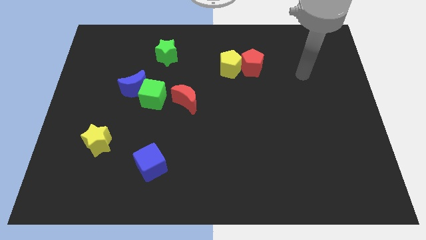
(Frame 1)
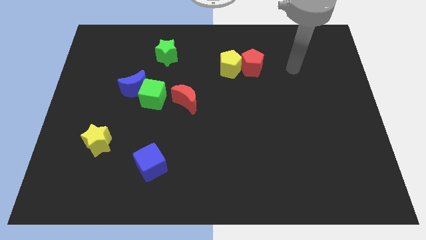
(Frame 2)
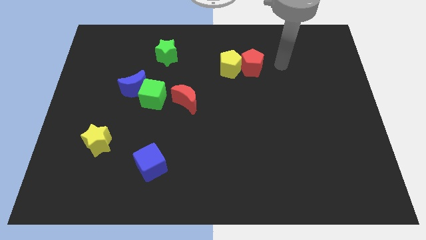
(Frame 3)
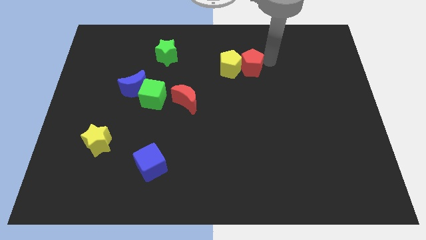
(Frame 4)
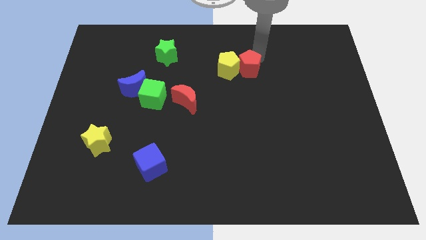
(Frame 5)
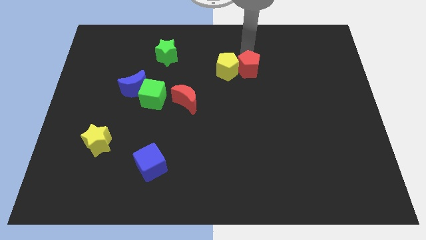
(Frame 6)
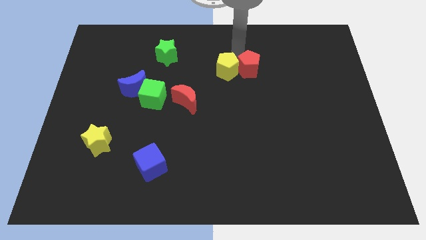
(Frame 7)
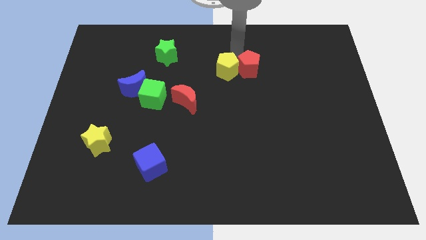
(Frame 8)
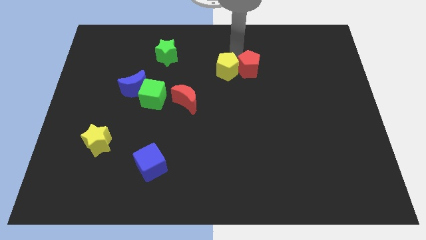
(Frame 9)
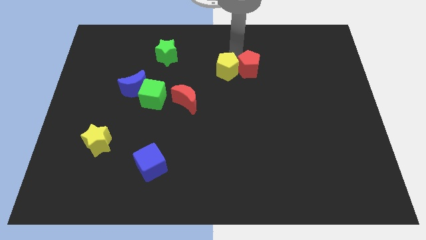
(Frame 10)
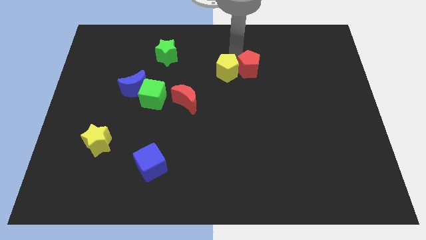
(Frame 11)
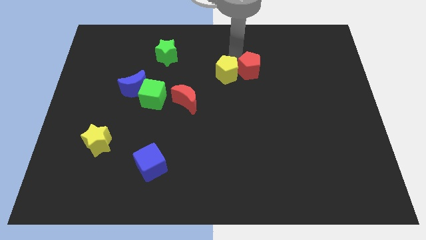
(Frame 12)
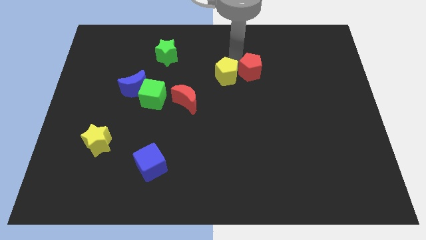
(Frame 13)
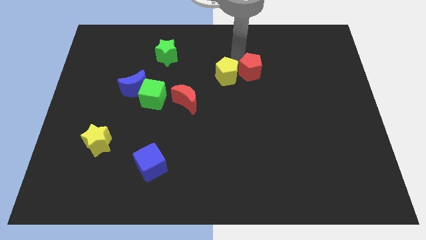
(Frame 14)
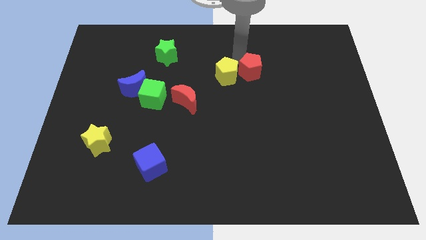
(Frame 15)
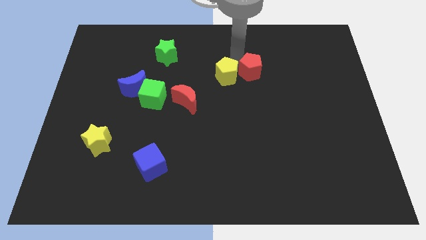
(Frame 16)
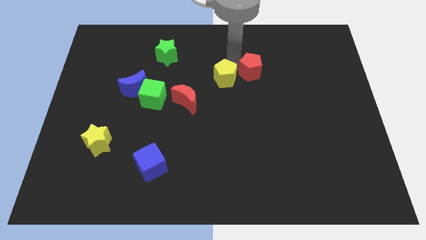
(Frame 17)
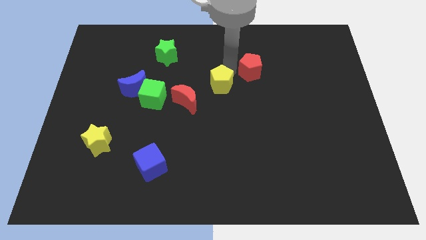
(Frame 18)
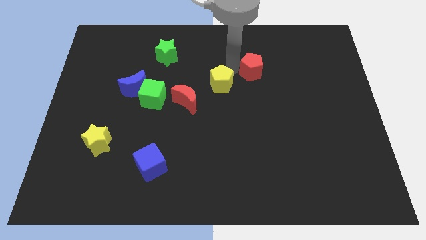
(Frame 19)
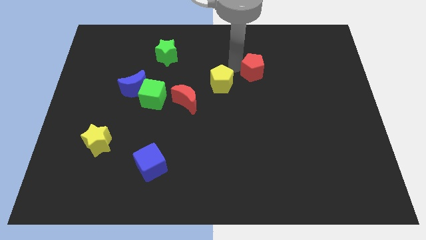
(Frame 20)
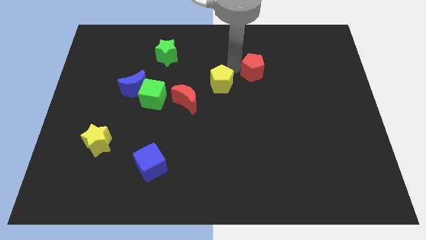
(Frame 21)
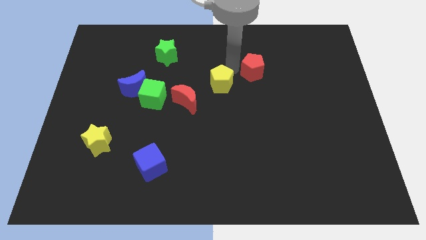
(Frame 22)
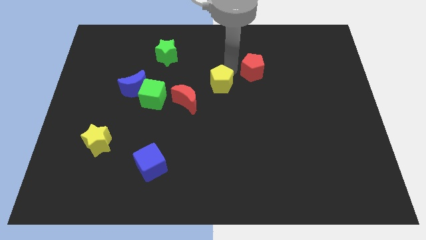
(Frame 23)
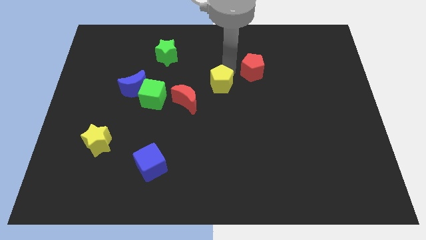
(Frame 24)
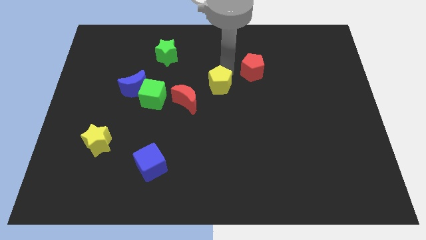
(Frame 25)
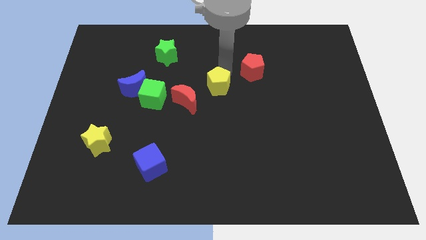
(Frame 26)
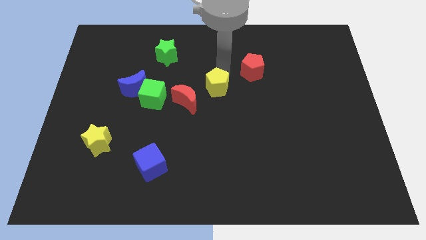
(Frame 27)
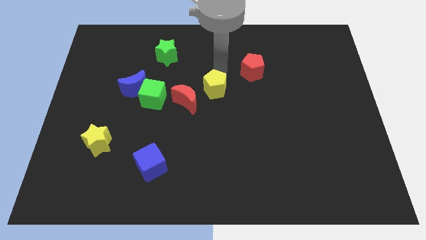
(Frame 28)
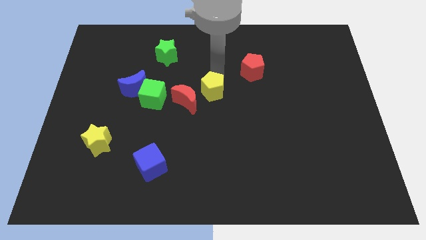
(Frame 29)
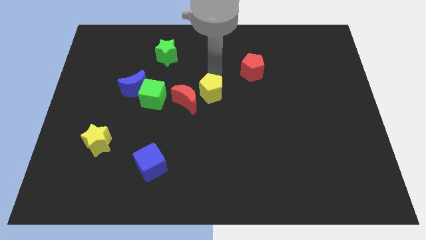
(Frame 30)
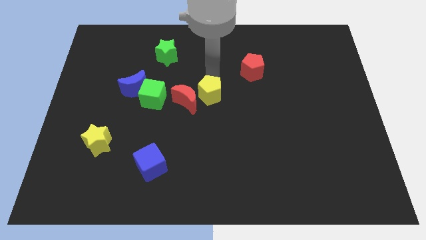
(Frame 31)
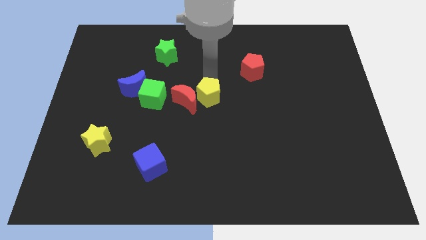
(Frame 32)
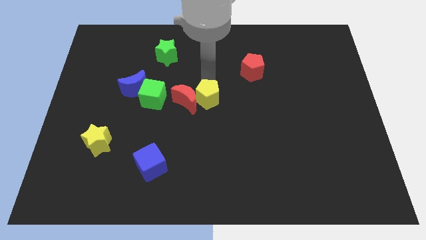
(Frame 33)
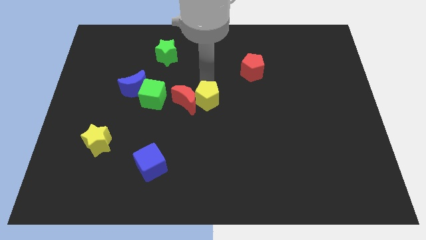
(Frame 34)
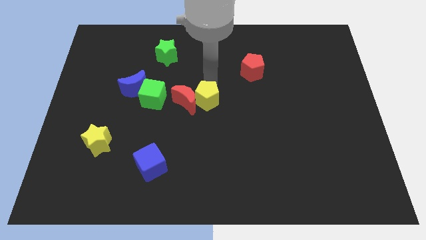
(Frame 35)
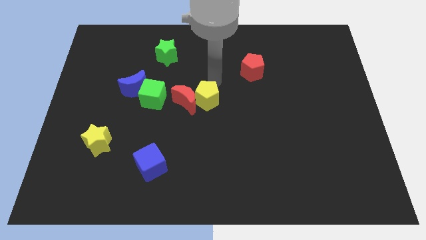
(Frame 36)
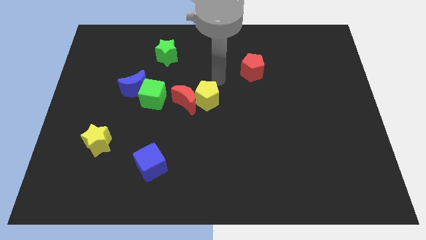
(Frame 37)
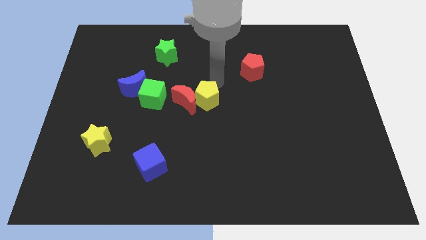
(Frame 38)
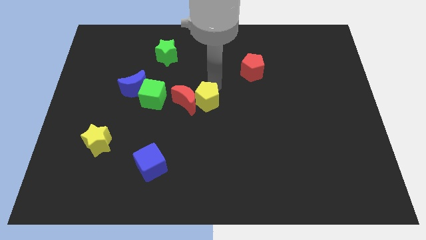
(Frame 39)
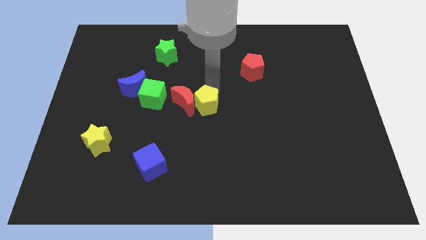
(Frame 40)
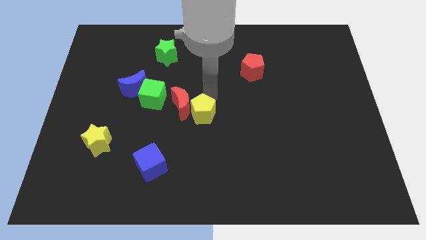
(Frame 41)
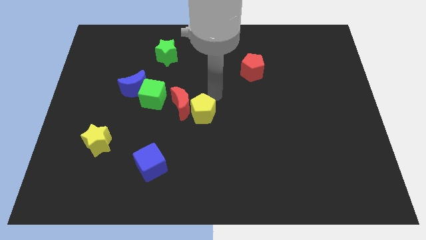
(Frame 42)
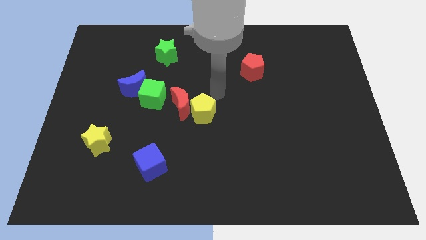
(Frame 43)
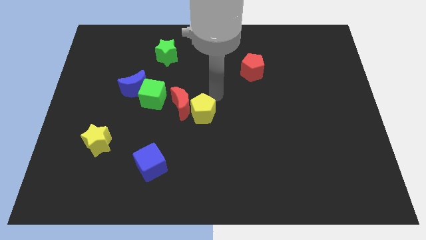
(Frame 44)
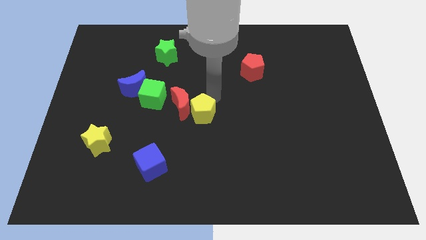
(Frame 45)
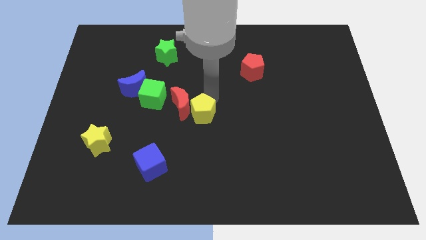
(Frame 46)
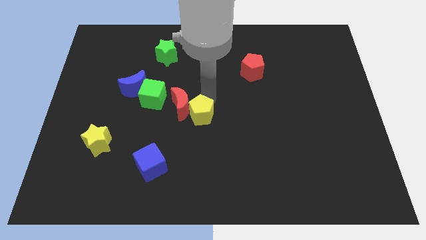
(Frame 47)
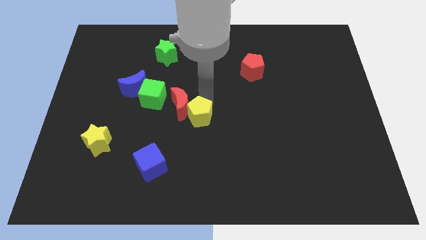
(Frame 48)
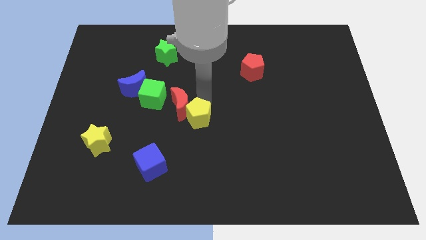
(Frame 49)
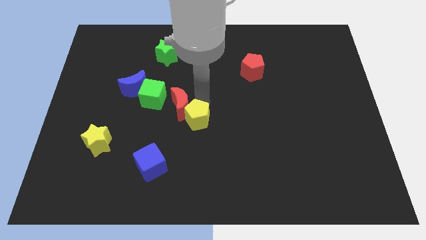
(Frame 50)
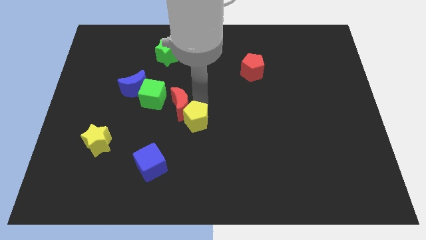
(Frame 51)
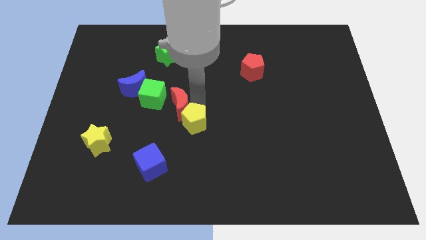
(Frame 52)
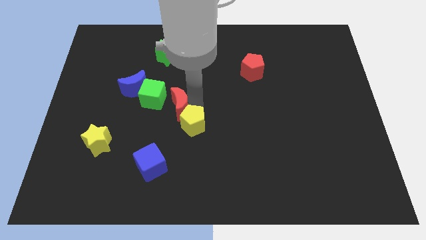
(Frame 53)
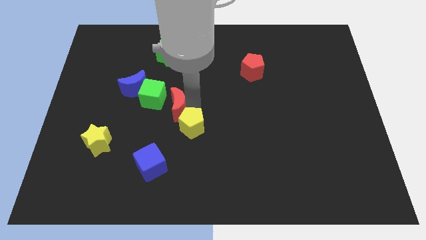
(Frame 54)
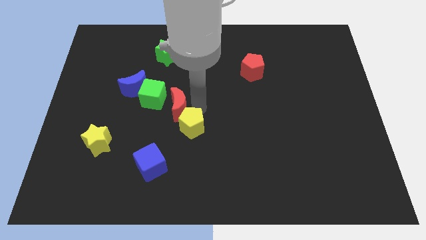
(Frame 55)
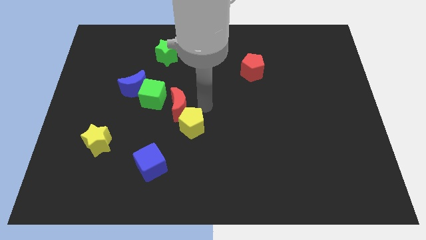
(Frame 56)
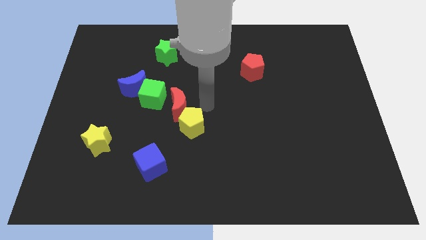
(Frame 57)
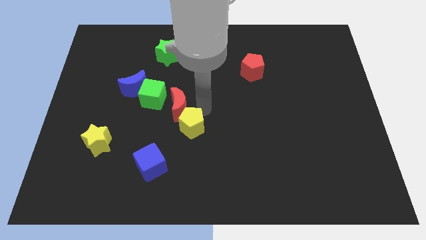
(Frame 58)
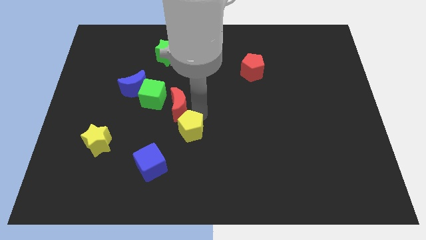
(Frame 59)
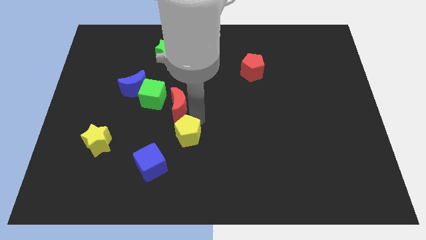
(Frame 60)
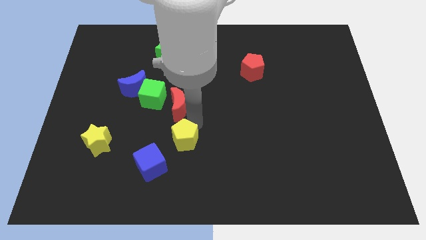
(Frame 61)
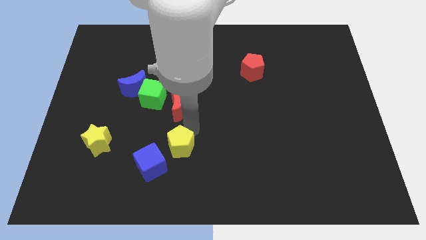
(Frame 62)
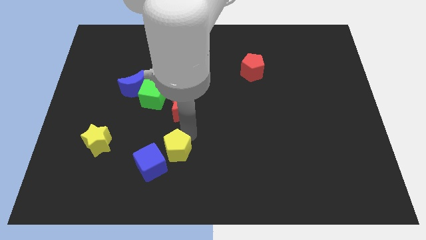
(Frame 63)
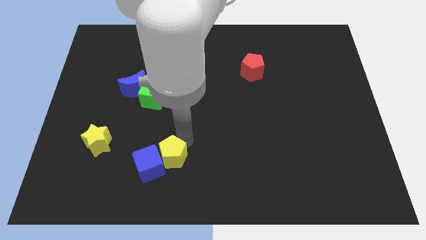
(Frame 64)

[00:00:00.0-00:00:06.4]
slide the yellow pentagon next to the blue cube
